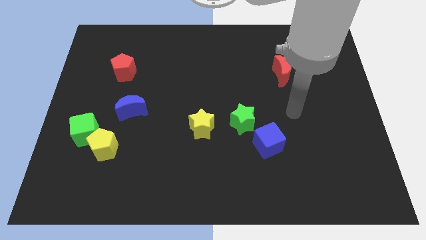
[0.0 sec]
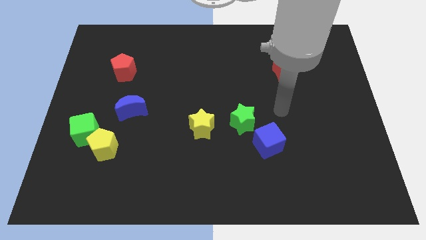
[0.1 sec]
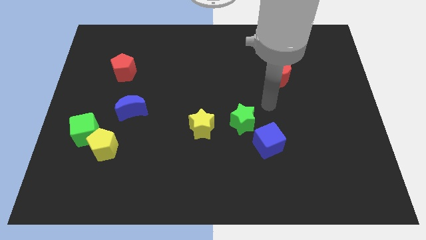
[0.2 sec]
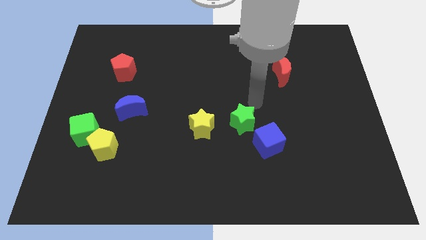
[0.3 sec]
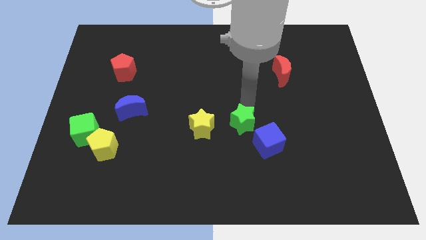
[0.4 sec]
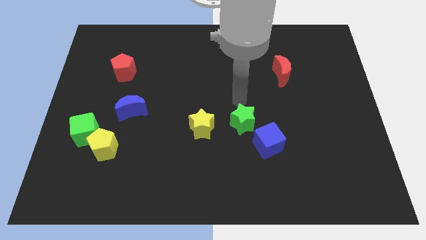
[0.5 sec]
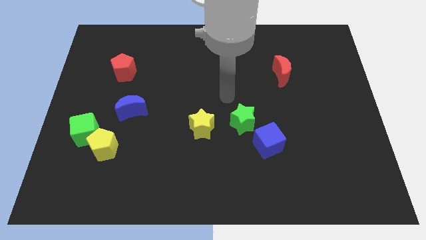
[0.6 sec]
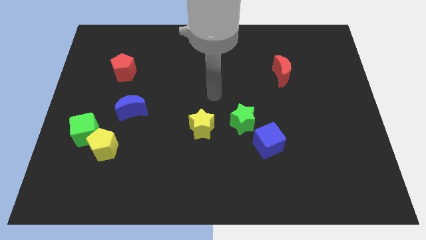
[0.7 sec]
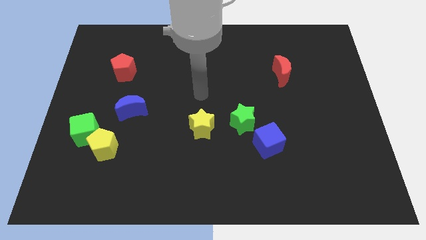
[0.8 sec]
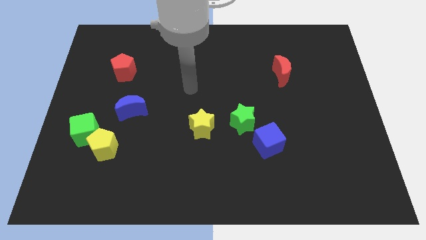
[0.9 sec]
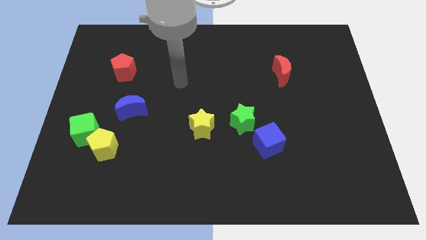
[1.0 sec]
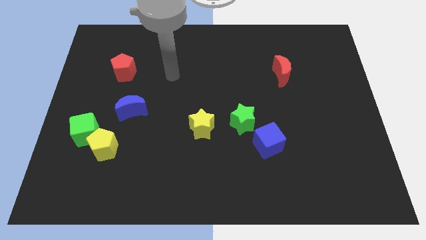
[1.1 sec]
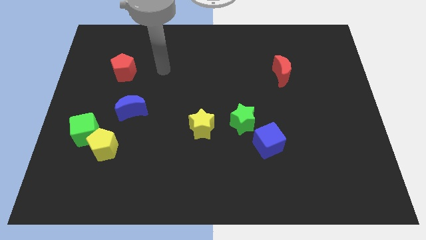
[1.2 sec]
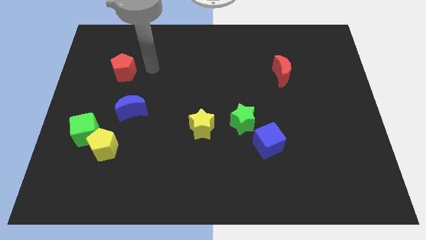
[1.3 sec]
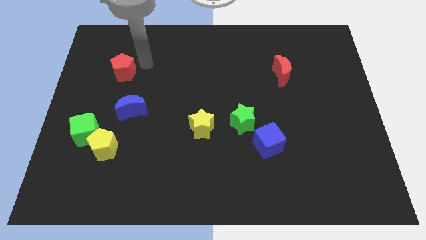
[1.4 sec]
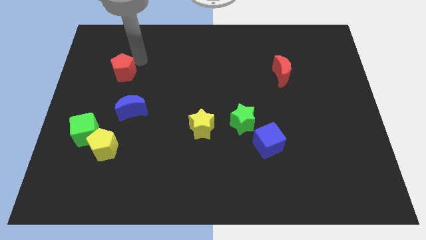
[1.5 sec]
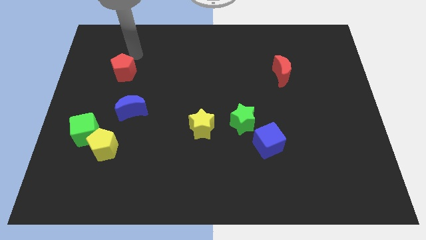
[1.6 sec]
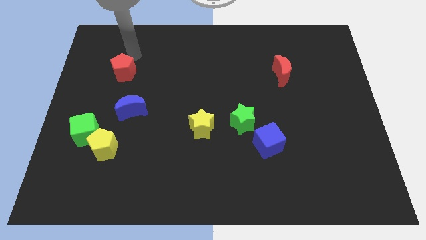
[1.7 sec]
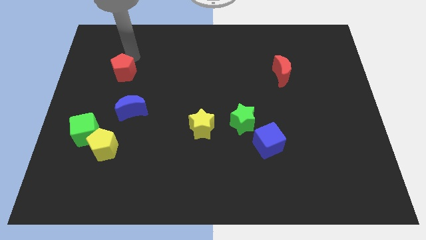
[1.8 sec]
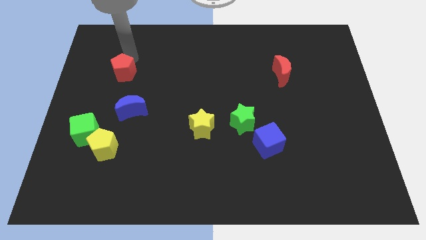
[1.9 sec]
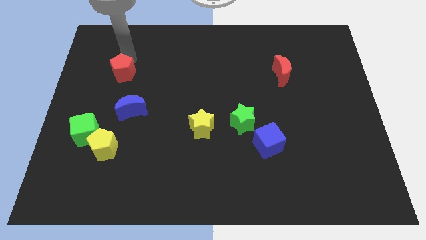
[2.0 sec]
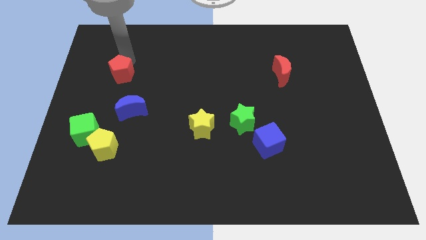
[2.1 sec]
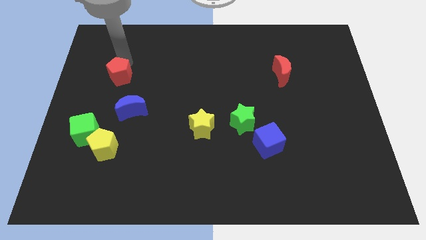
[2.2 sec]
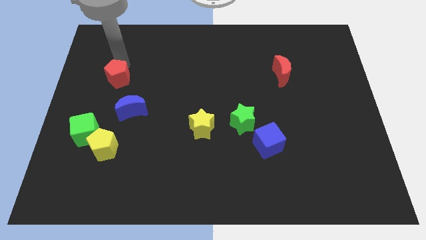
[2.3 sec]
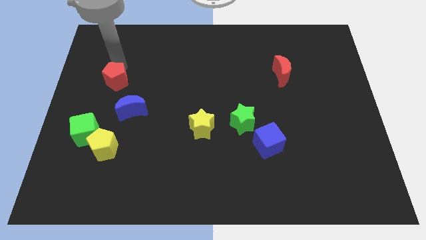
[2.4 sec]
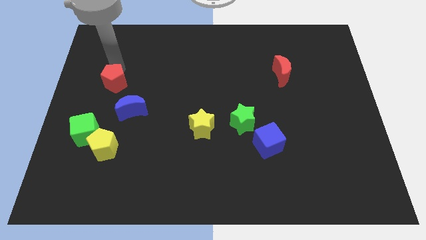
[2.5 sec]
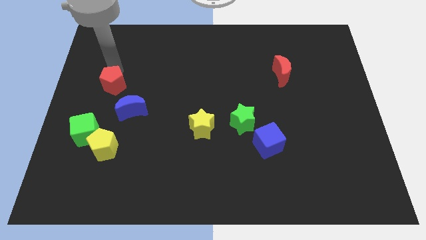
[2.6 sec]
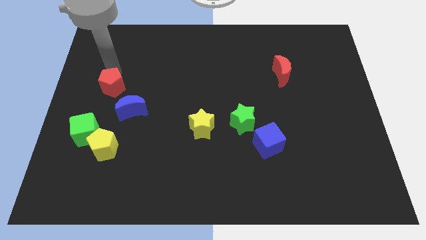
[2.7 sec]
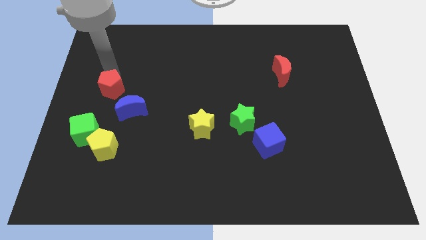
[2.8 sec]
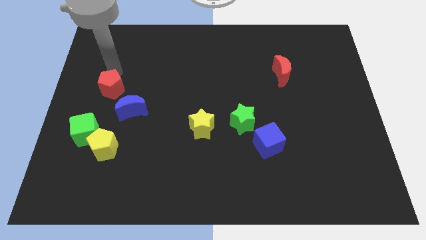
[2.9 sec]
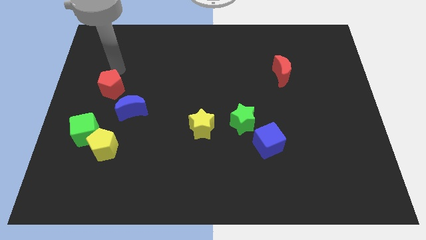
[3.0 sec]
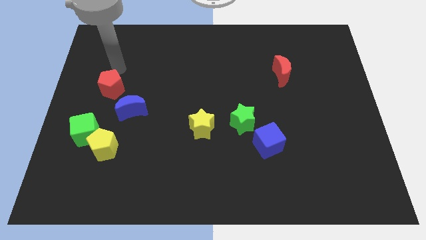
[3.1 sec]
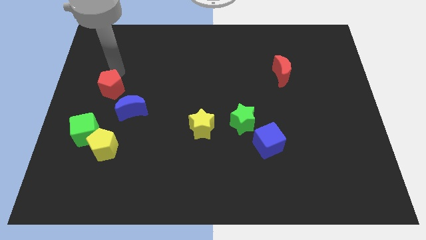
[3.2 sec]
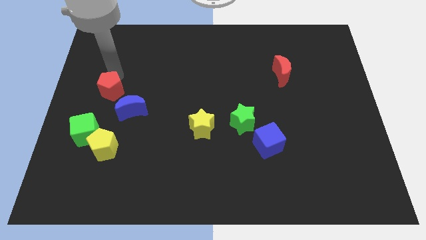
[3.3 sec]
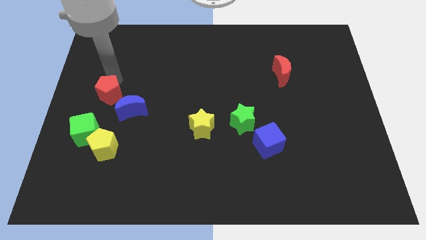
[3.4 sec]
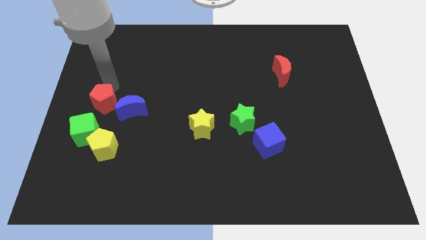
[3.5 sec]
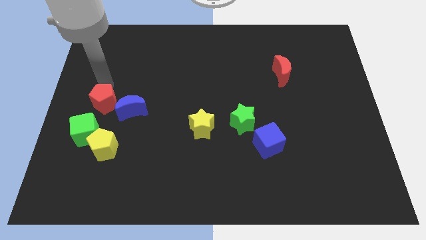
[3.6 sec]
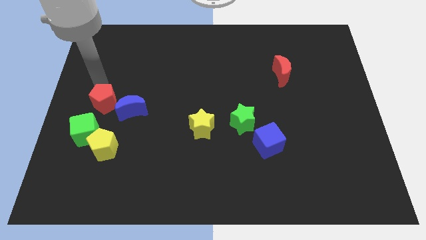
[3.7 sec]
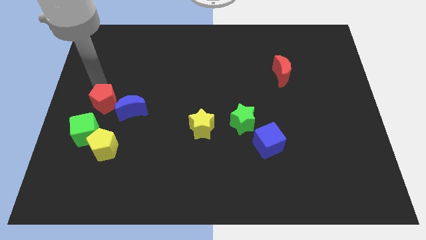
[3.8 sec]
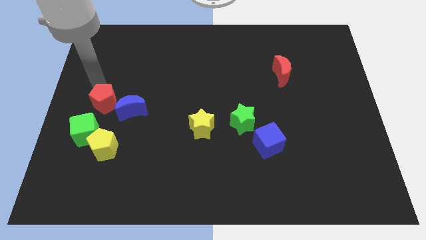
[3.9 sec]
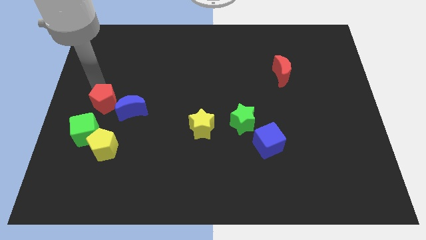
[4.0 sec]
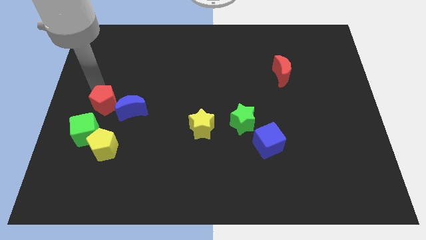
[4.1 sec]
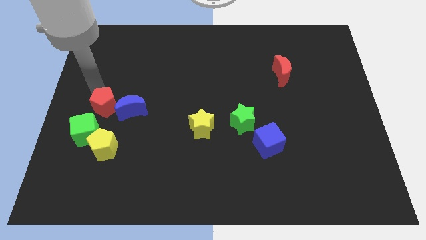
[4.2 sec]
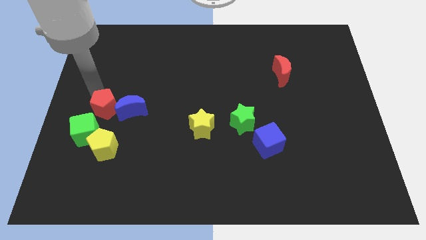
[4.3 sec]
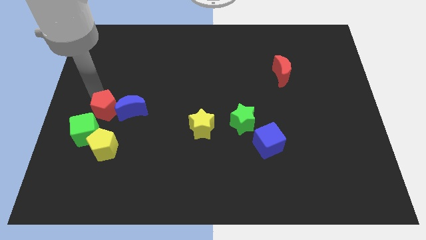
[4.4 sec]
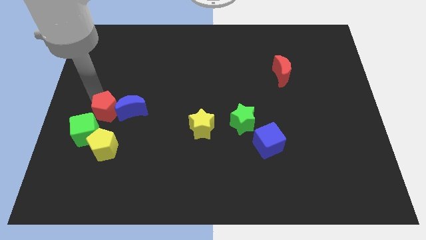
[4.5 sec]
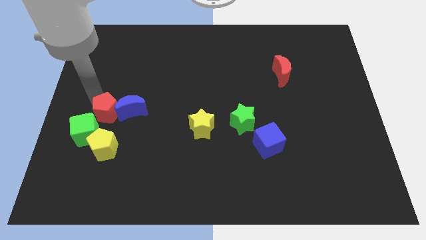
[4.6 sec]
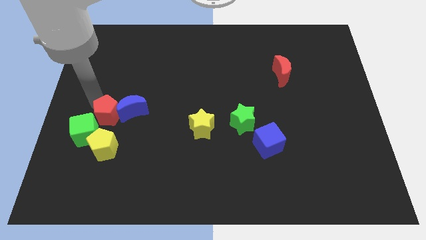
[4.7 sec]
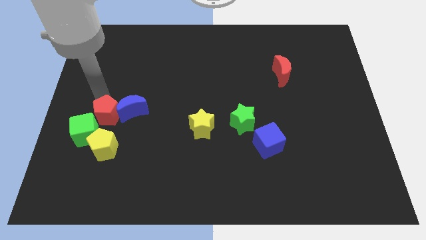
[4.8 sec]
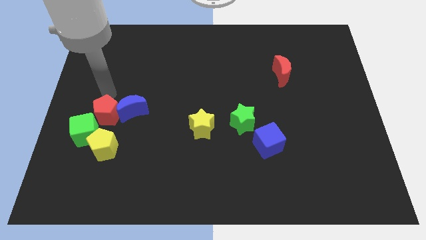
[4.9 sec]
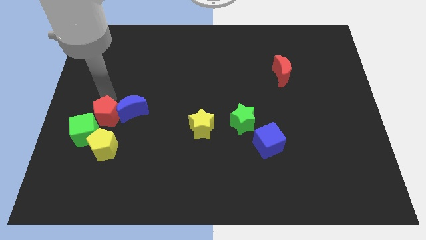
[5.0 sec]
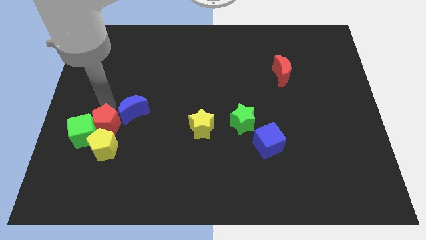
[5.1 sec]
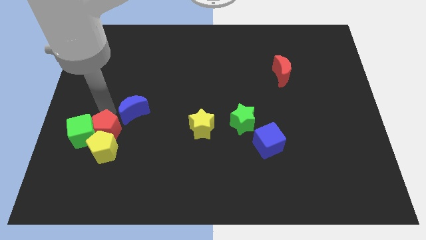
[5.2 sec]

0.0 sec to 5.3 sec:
slide the red pentagon close to the yellow pentagon

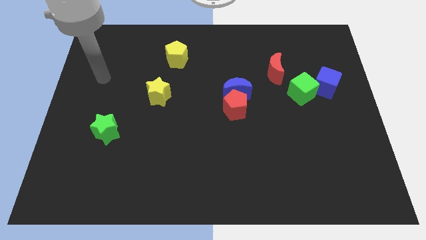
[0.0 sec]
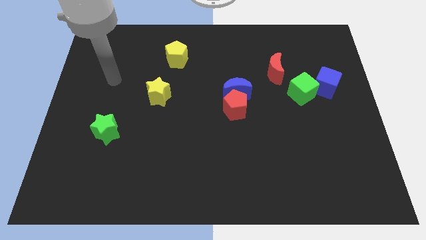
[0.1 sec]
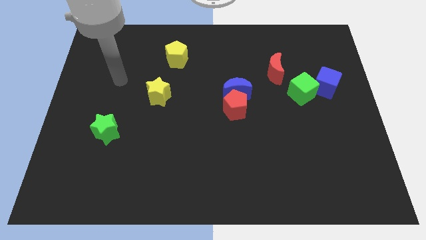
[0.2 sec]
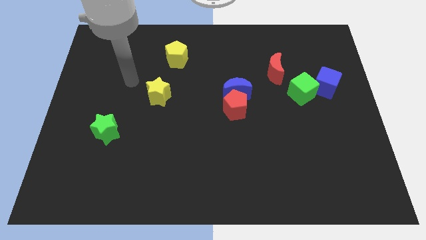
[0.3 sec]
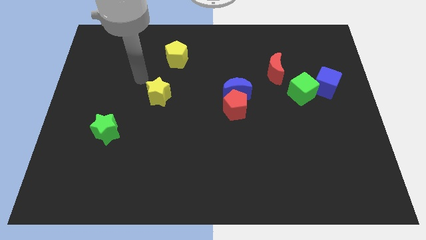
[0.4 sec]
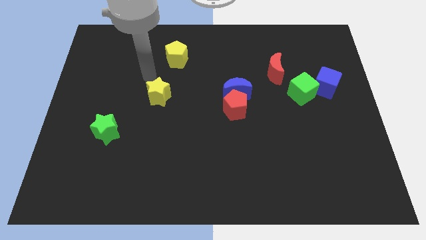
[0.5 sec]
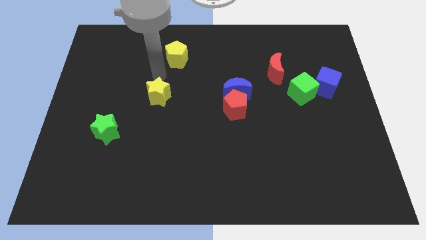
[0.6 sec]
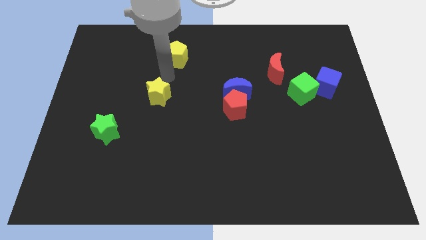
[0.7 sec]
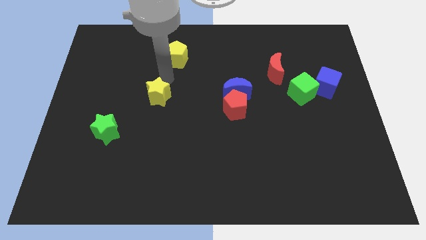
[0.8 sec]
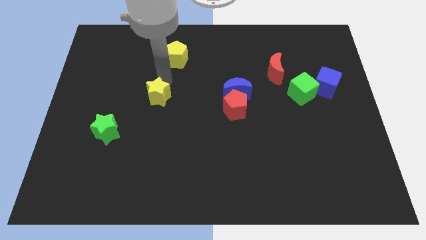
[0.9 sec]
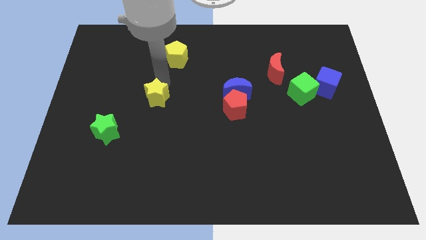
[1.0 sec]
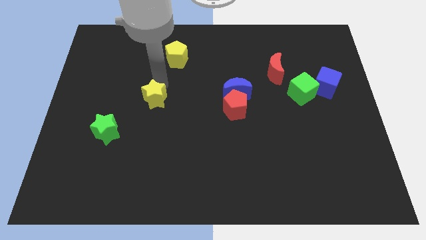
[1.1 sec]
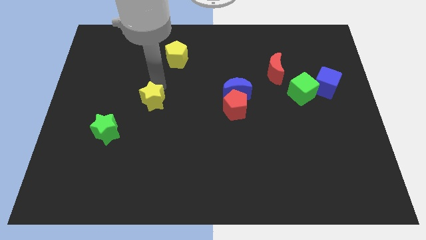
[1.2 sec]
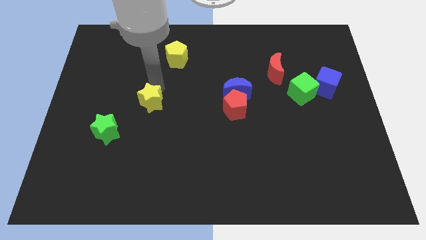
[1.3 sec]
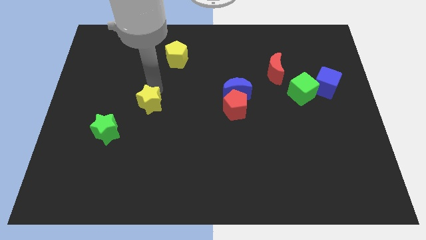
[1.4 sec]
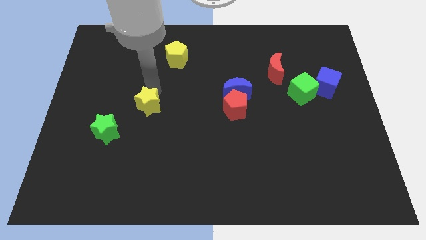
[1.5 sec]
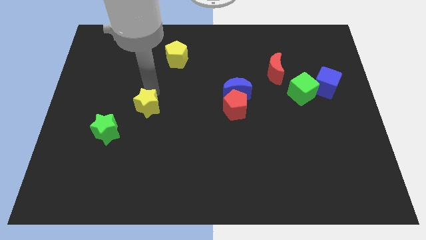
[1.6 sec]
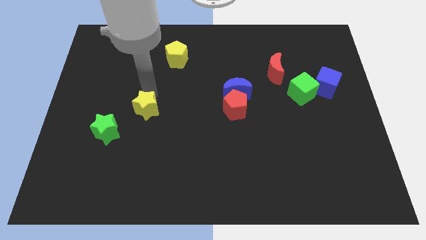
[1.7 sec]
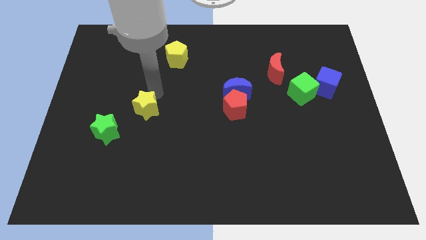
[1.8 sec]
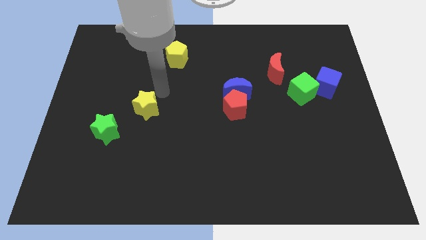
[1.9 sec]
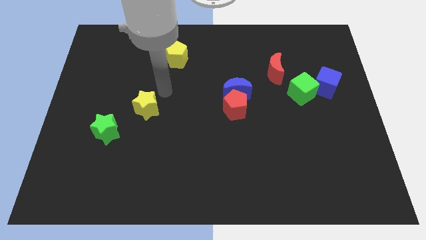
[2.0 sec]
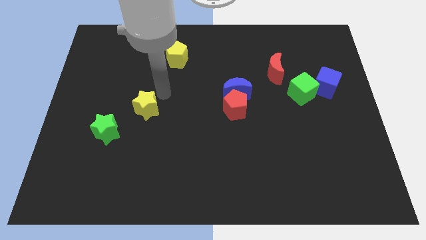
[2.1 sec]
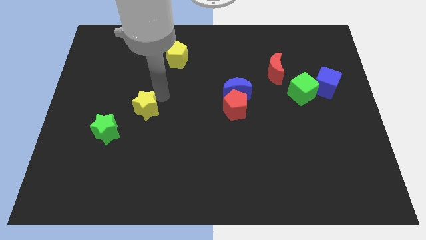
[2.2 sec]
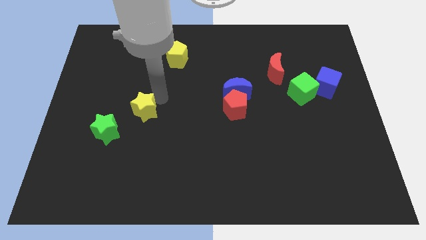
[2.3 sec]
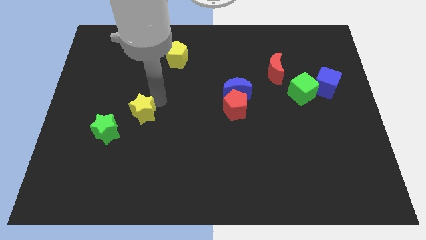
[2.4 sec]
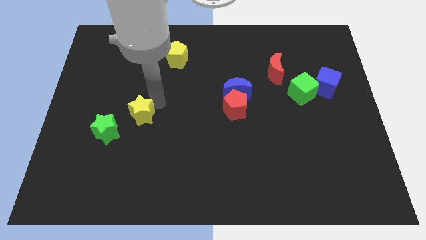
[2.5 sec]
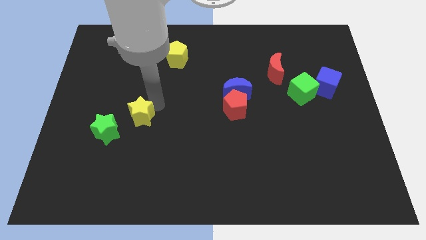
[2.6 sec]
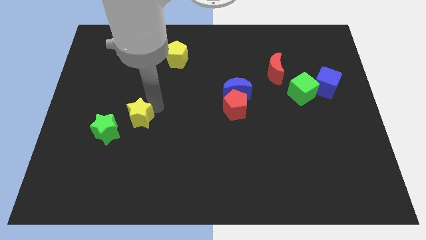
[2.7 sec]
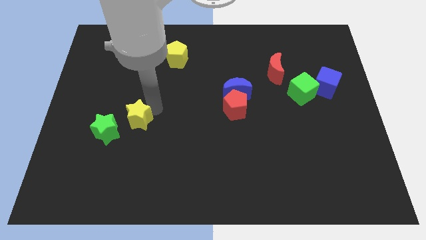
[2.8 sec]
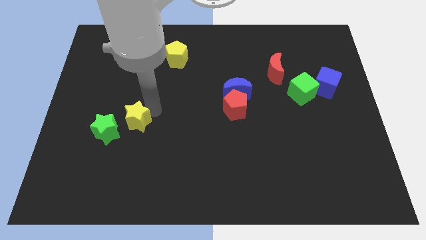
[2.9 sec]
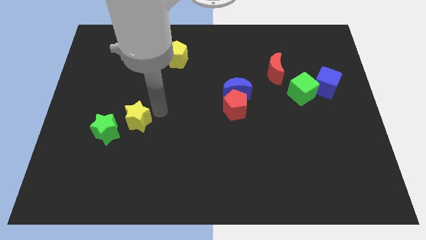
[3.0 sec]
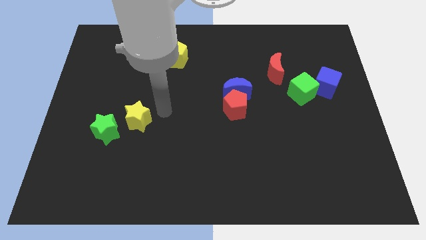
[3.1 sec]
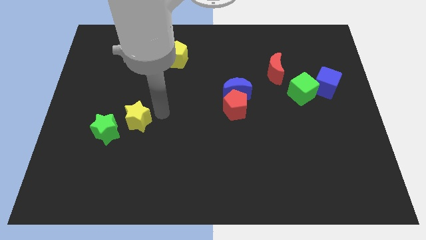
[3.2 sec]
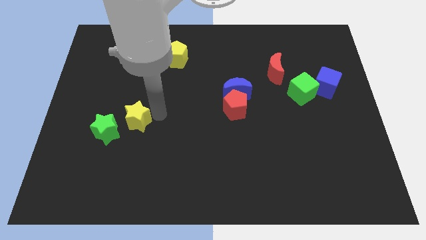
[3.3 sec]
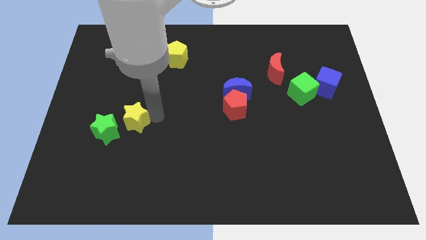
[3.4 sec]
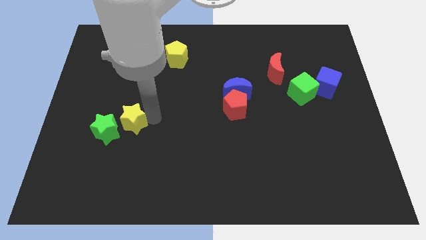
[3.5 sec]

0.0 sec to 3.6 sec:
move the yellow star towards the green star
